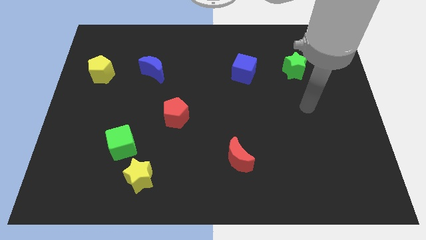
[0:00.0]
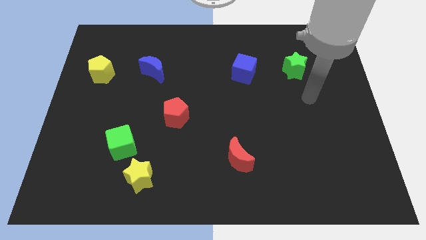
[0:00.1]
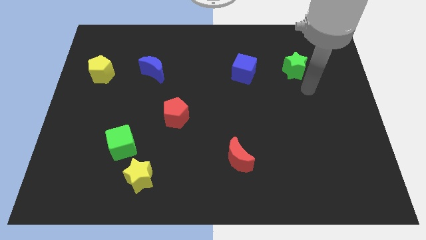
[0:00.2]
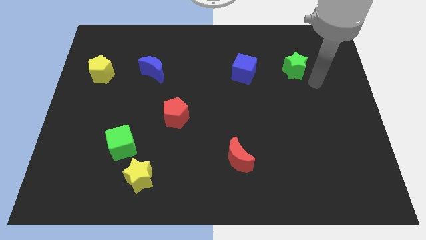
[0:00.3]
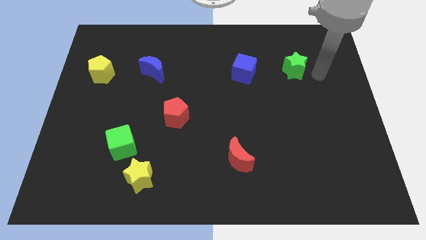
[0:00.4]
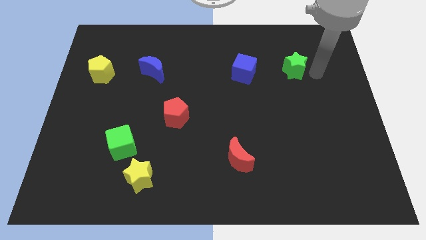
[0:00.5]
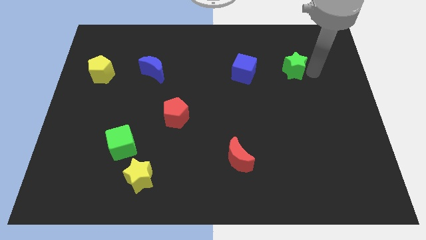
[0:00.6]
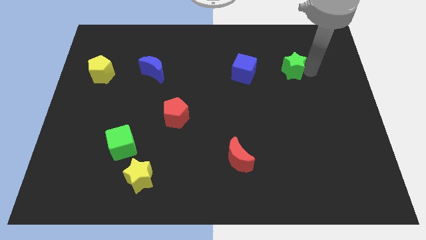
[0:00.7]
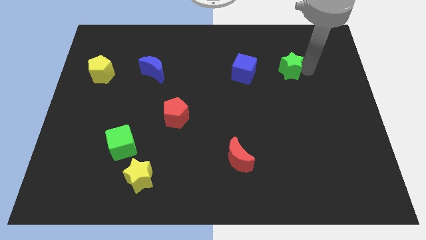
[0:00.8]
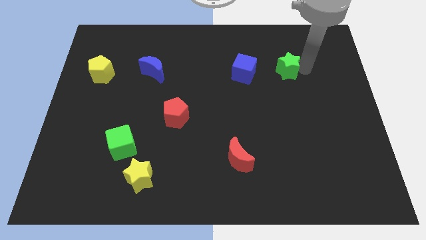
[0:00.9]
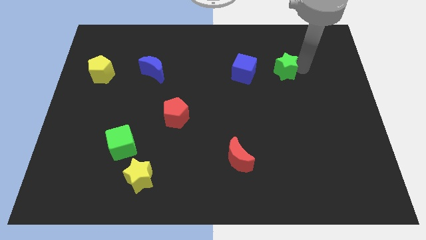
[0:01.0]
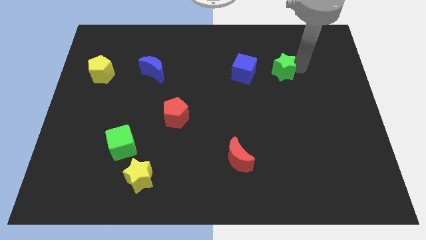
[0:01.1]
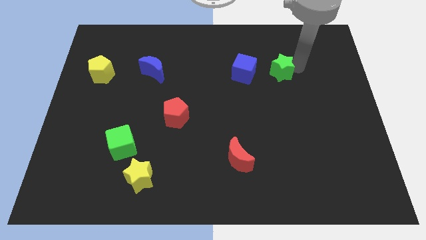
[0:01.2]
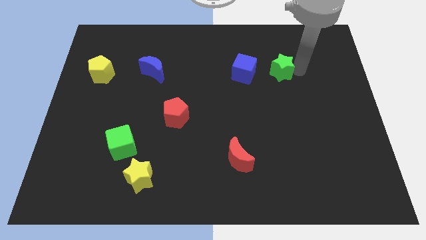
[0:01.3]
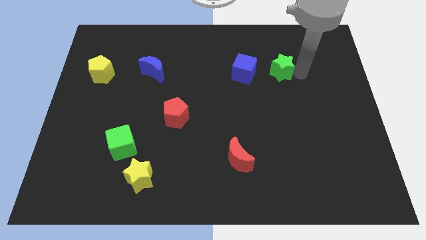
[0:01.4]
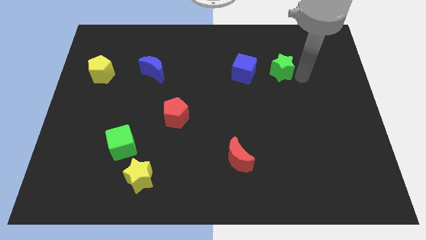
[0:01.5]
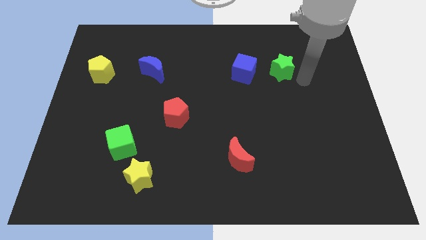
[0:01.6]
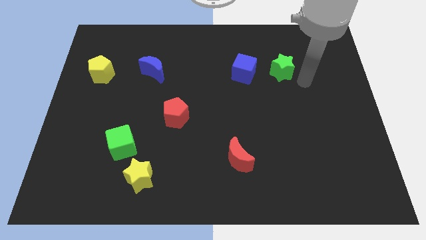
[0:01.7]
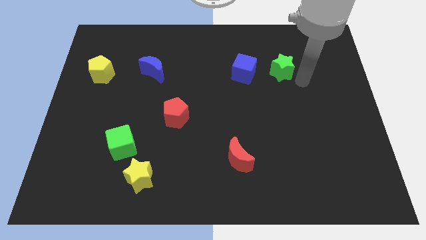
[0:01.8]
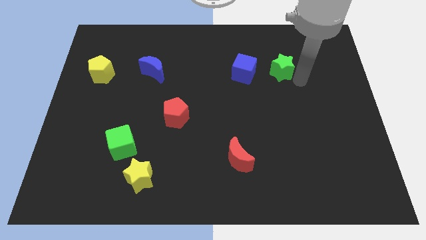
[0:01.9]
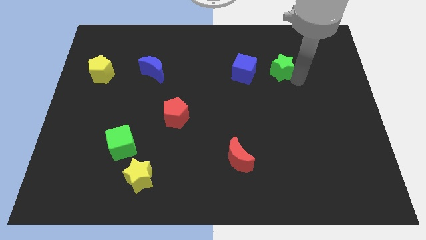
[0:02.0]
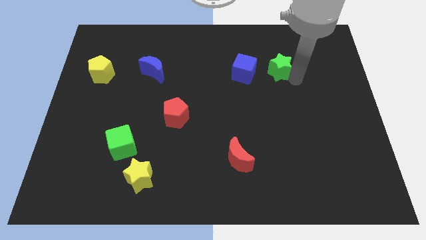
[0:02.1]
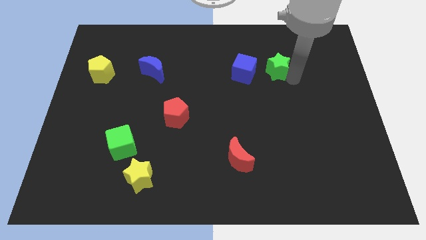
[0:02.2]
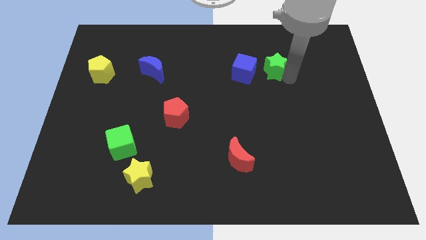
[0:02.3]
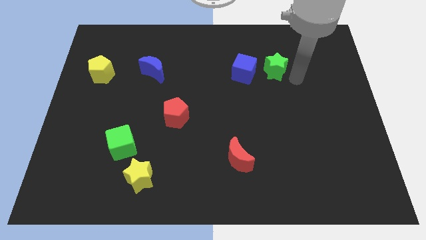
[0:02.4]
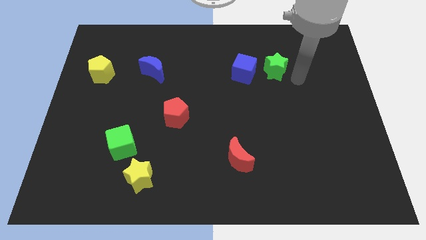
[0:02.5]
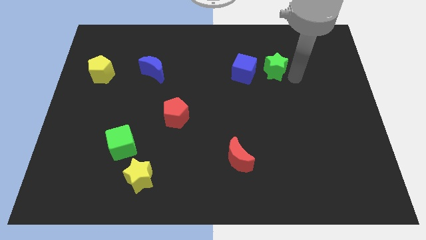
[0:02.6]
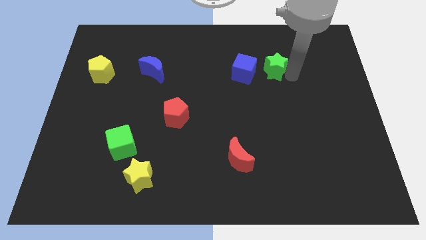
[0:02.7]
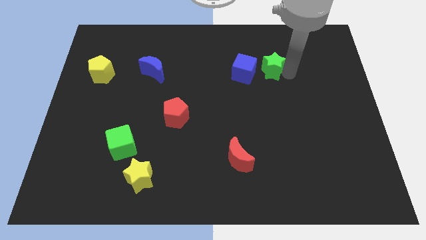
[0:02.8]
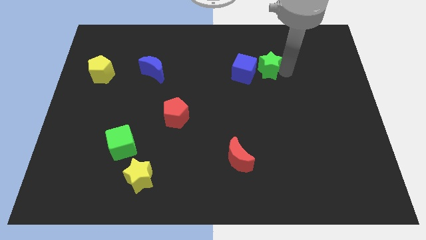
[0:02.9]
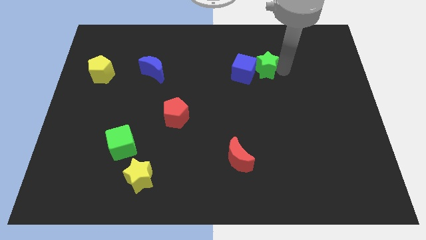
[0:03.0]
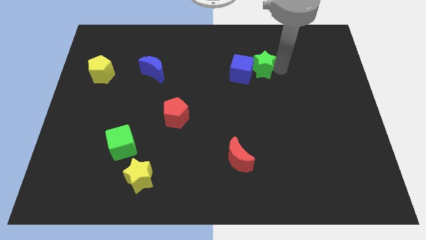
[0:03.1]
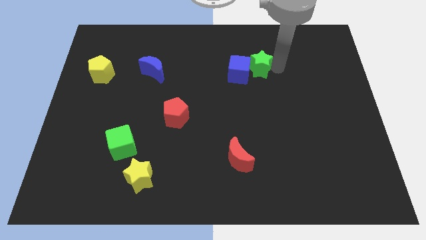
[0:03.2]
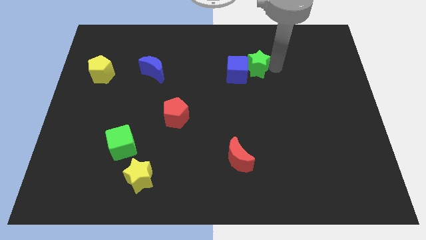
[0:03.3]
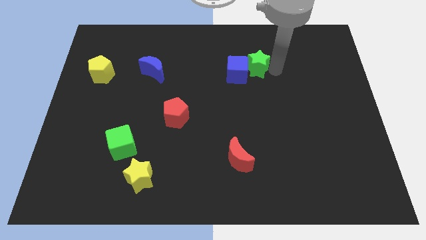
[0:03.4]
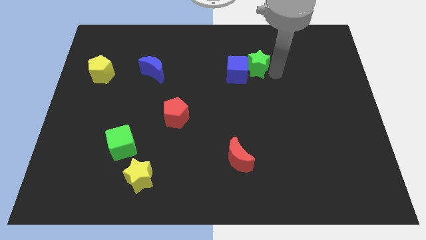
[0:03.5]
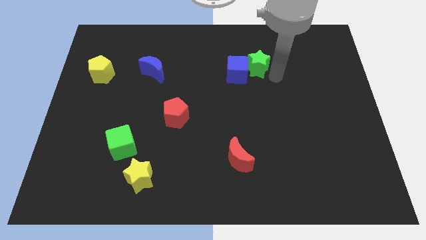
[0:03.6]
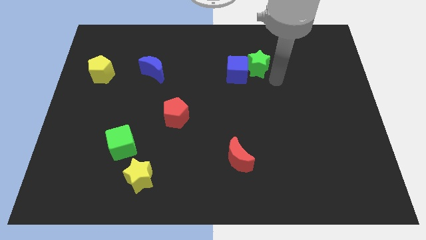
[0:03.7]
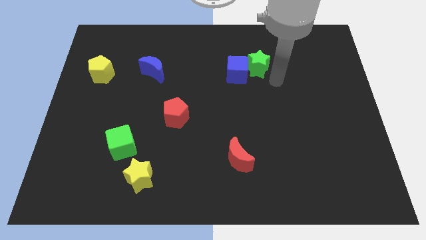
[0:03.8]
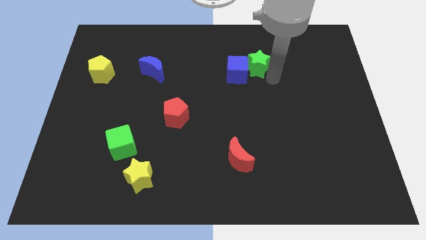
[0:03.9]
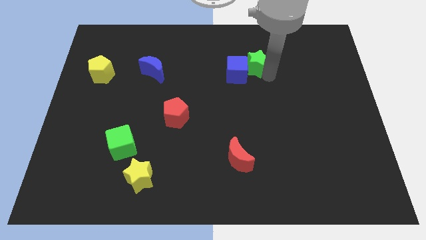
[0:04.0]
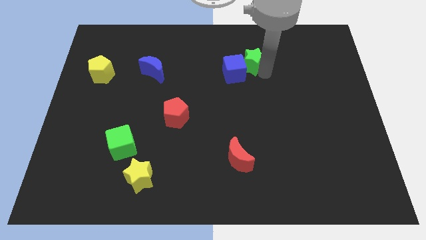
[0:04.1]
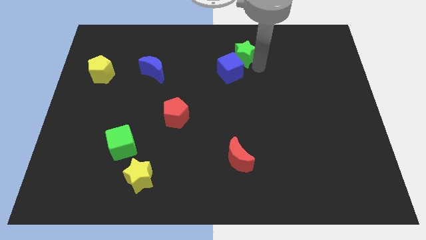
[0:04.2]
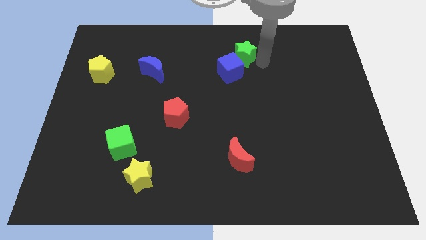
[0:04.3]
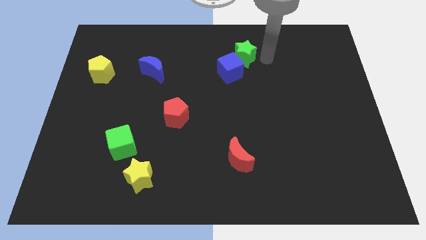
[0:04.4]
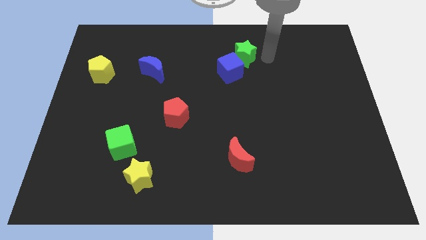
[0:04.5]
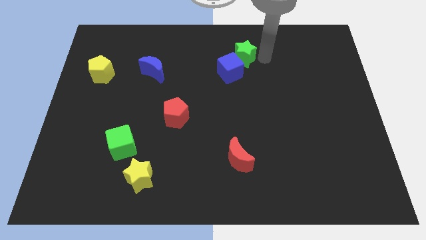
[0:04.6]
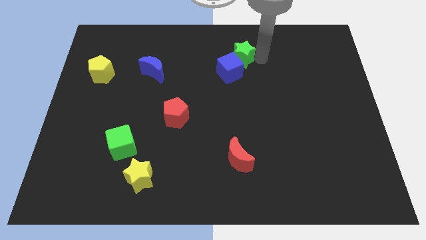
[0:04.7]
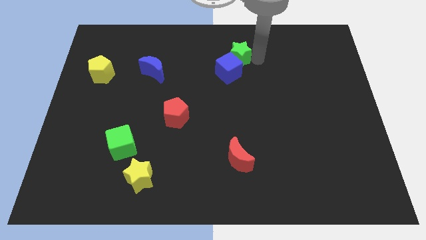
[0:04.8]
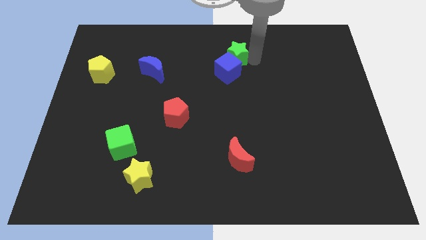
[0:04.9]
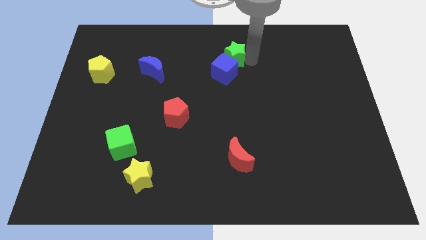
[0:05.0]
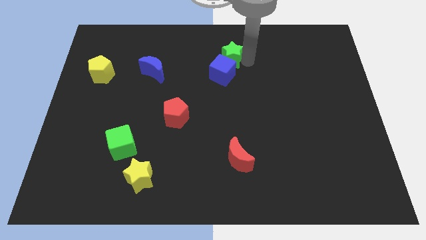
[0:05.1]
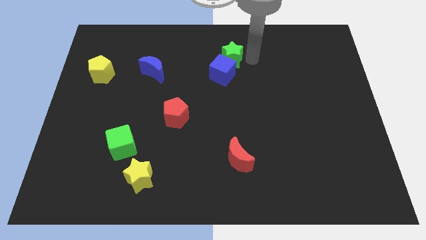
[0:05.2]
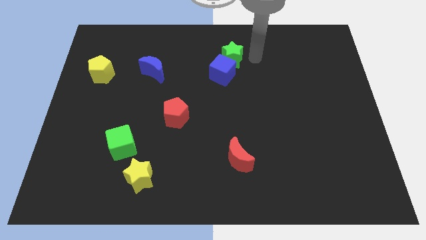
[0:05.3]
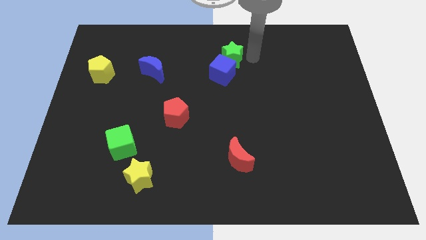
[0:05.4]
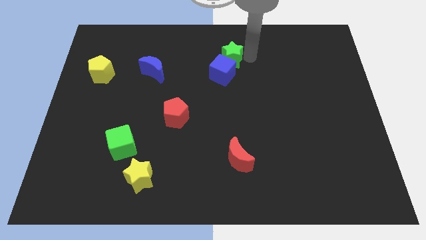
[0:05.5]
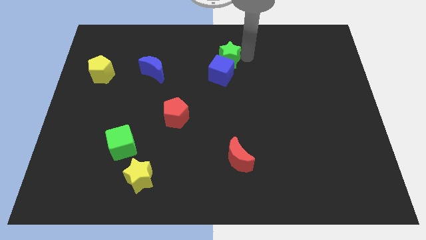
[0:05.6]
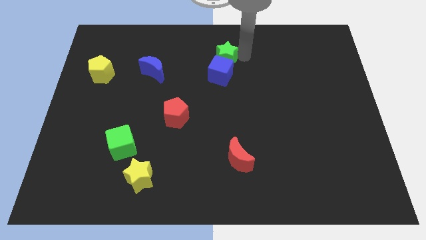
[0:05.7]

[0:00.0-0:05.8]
put the green star diagonally up and to the left of the blue cube

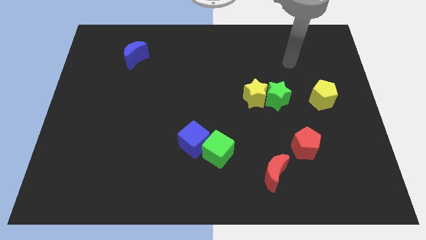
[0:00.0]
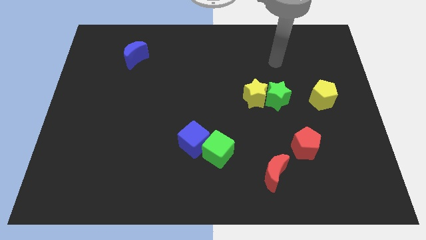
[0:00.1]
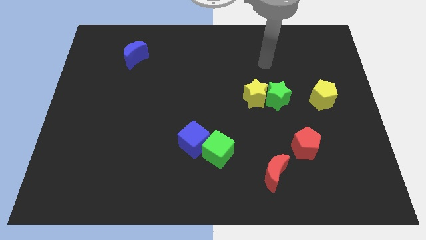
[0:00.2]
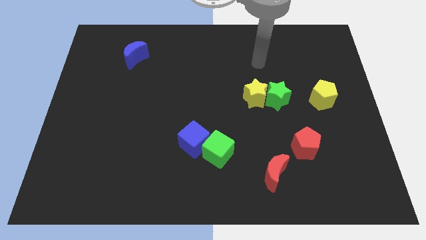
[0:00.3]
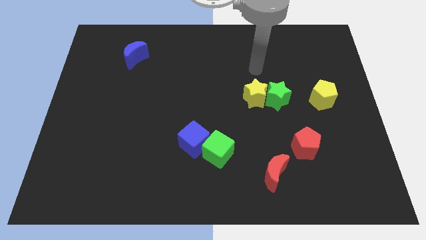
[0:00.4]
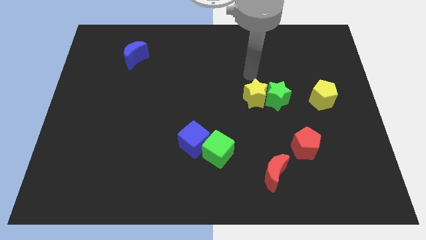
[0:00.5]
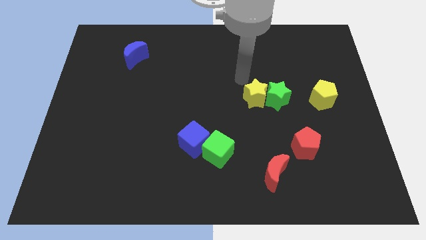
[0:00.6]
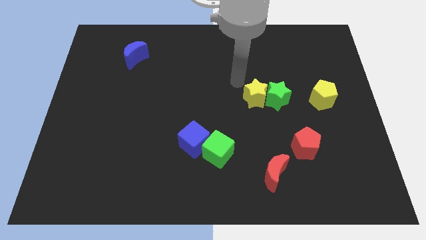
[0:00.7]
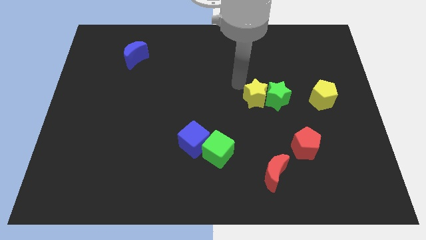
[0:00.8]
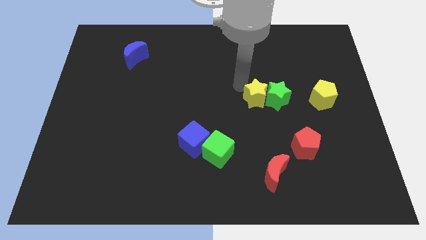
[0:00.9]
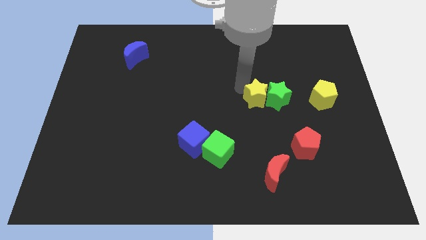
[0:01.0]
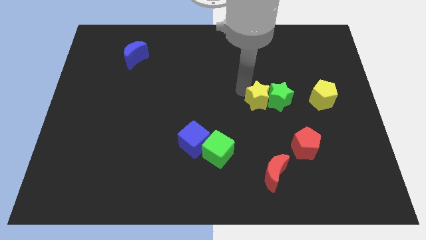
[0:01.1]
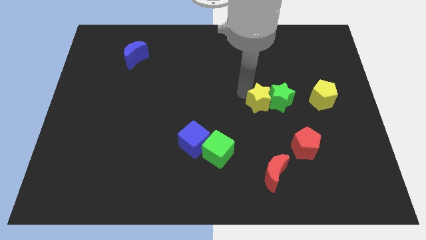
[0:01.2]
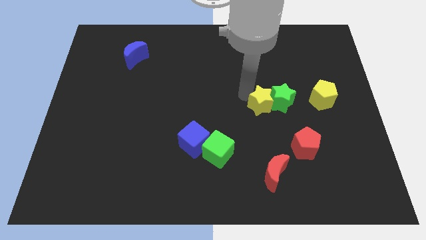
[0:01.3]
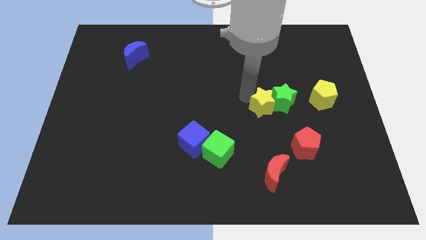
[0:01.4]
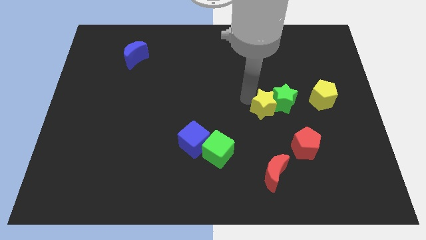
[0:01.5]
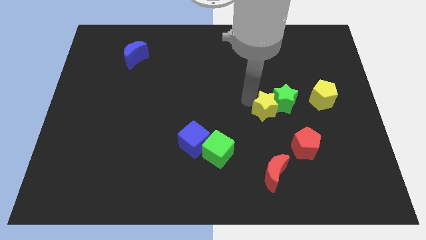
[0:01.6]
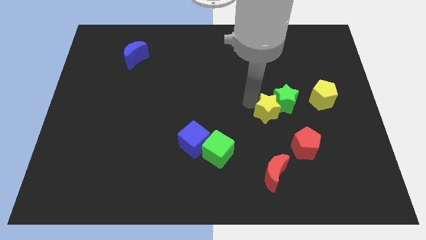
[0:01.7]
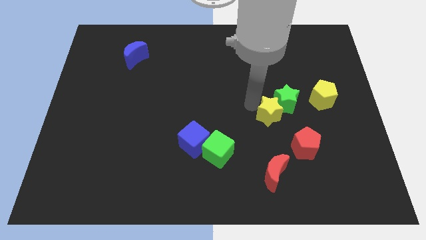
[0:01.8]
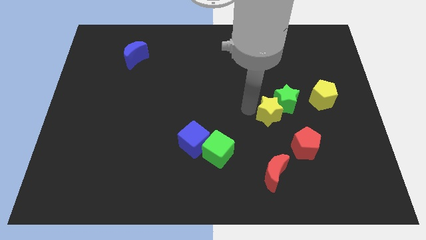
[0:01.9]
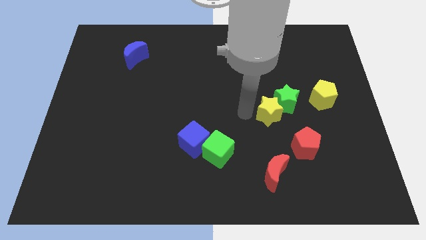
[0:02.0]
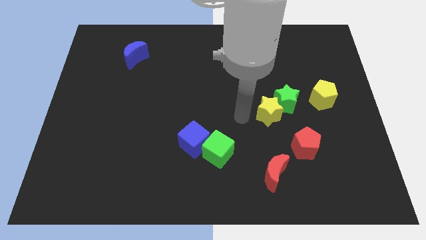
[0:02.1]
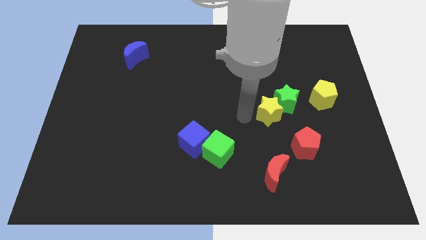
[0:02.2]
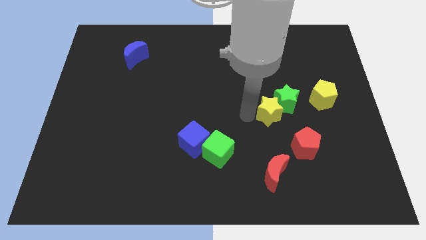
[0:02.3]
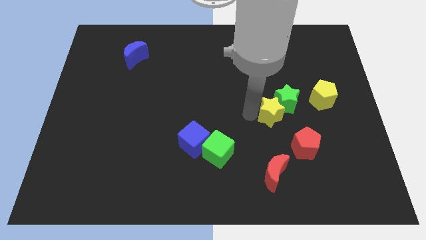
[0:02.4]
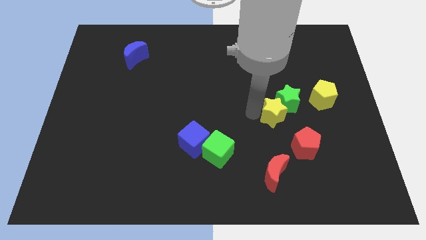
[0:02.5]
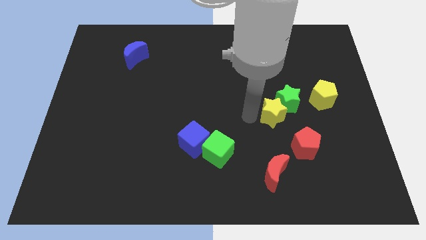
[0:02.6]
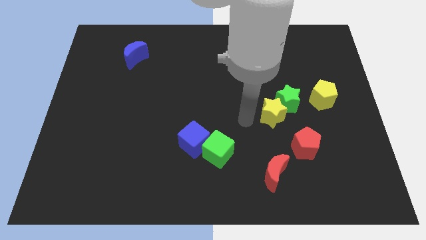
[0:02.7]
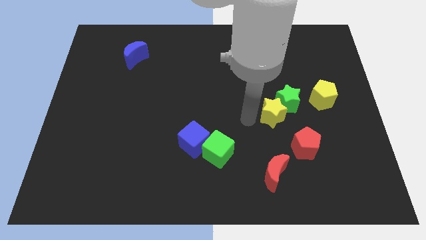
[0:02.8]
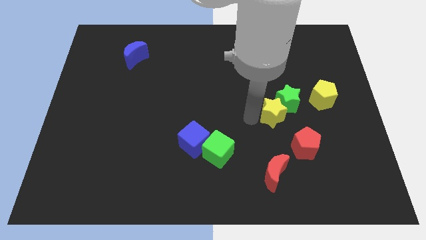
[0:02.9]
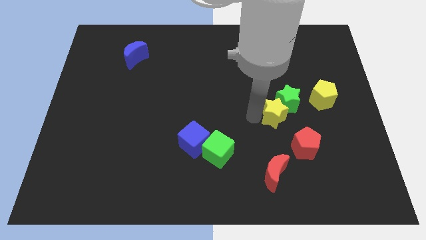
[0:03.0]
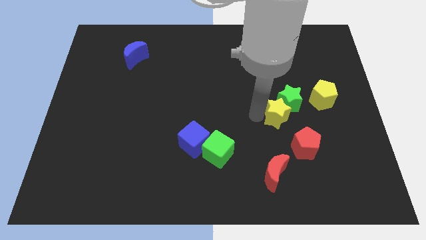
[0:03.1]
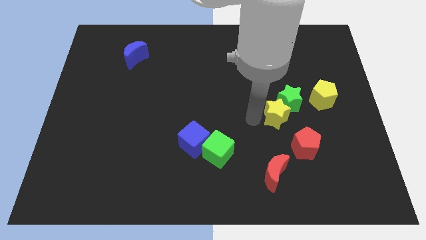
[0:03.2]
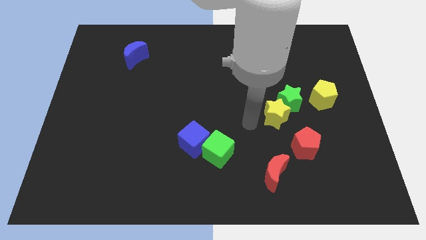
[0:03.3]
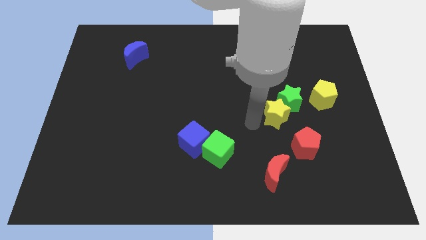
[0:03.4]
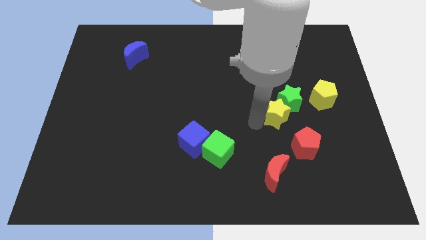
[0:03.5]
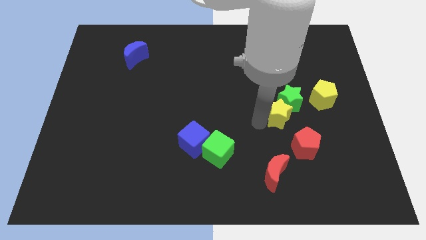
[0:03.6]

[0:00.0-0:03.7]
push the yellow star to the top of the red pentagon
